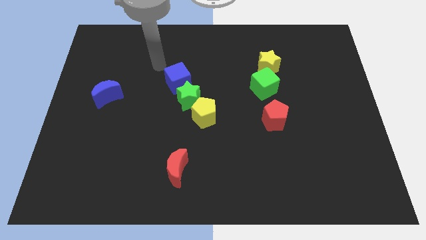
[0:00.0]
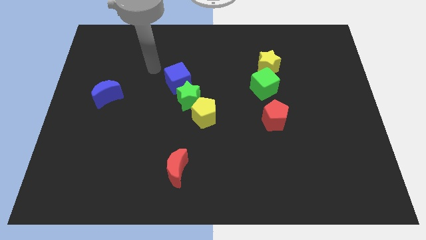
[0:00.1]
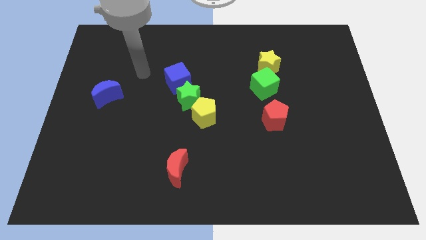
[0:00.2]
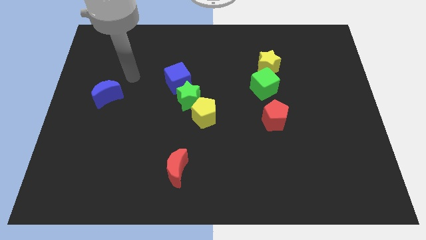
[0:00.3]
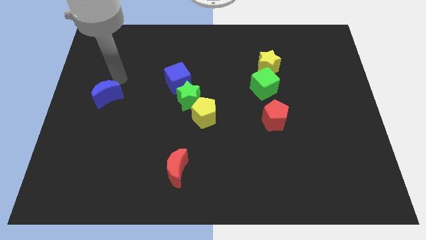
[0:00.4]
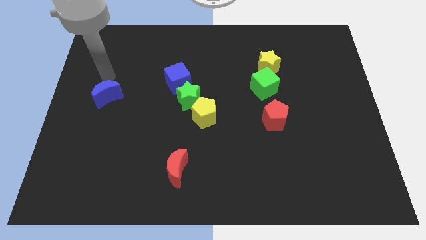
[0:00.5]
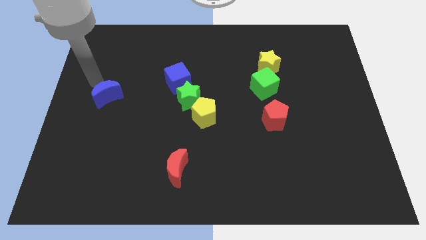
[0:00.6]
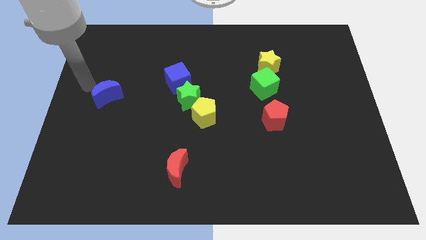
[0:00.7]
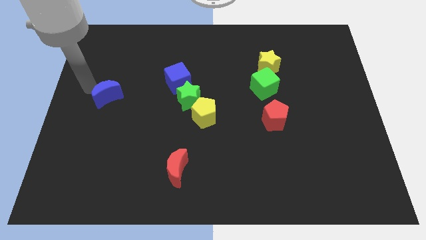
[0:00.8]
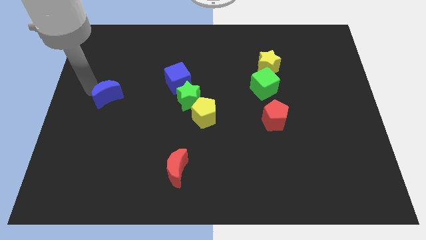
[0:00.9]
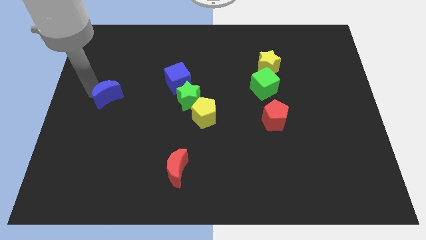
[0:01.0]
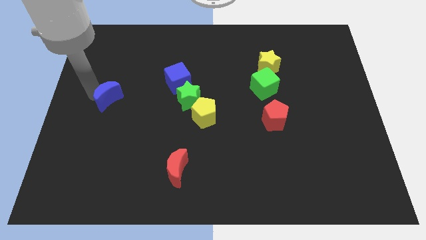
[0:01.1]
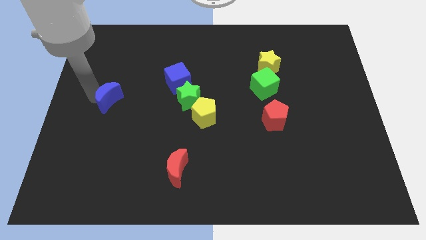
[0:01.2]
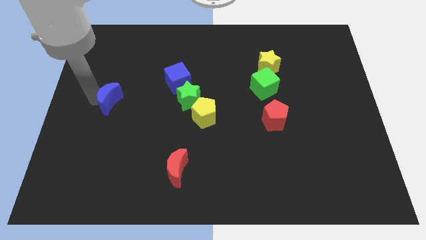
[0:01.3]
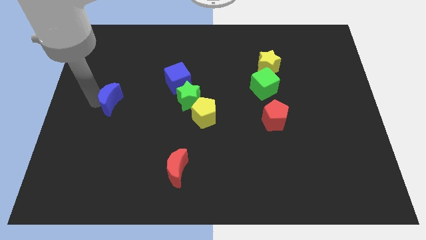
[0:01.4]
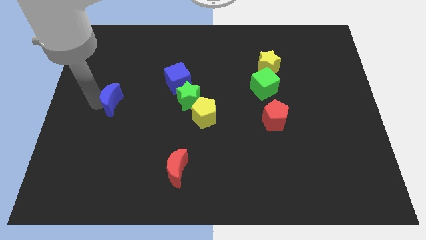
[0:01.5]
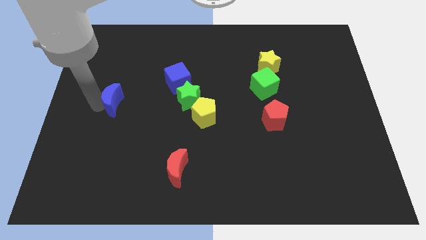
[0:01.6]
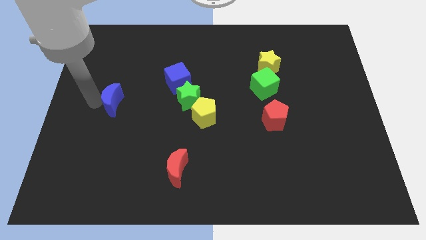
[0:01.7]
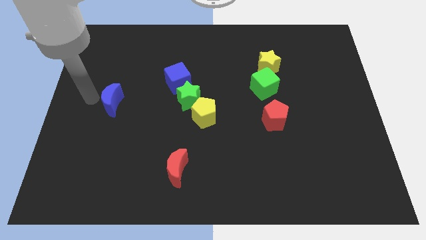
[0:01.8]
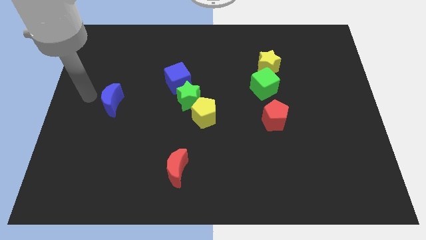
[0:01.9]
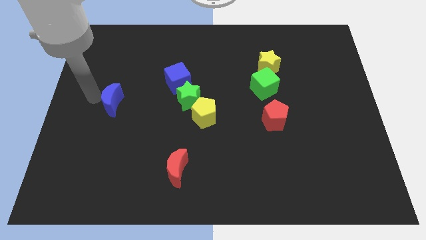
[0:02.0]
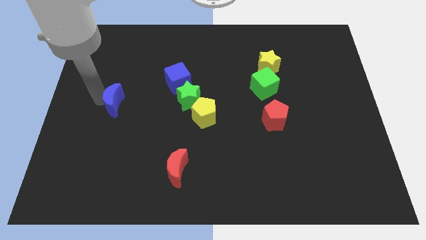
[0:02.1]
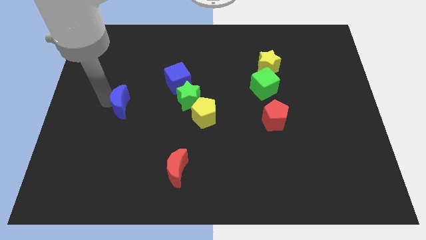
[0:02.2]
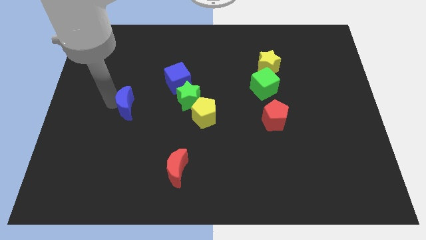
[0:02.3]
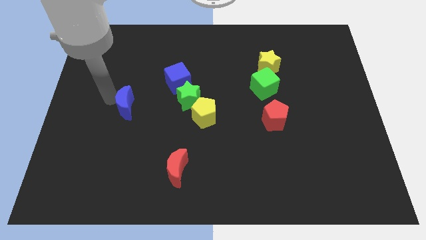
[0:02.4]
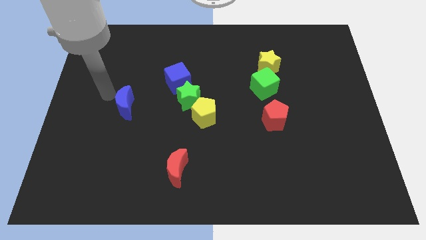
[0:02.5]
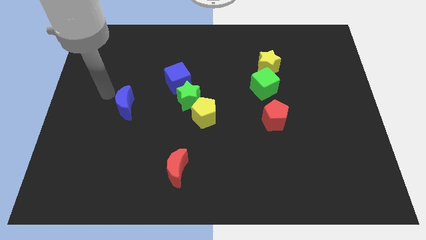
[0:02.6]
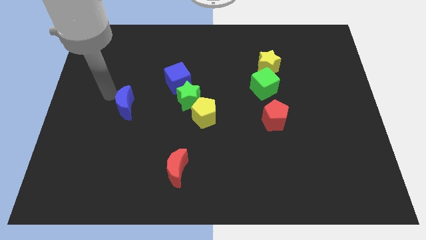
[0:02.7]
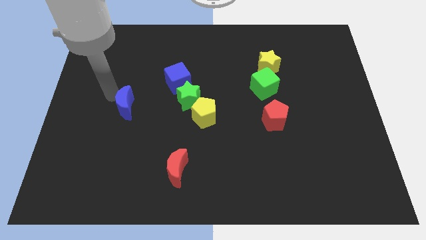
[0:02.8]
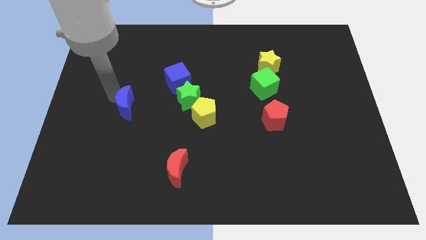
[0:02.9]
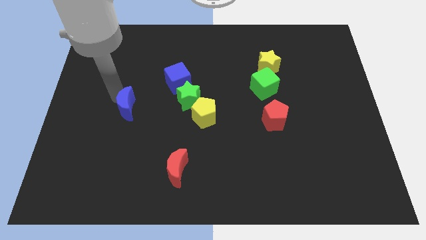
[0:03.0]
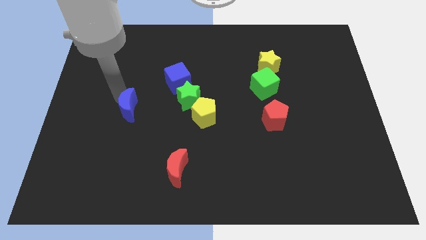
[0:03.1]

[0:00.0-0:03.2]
move the blue moon a bit diagonally down and to the right

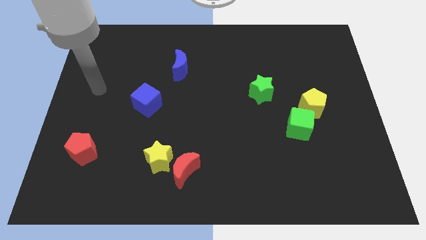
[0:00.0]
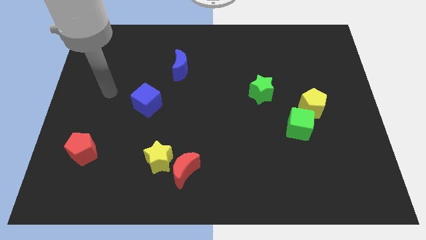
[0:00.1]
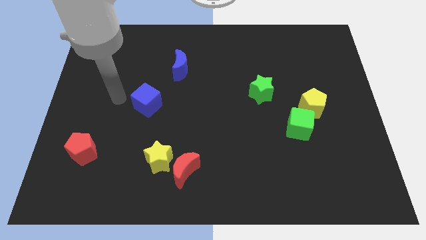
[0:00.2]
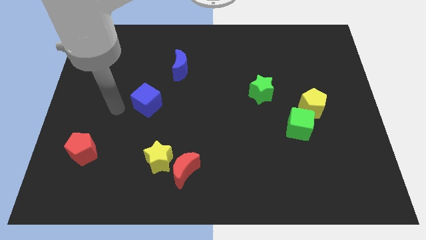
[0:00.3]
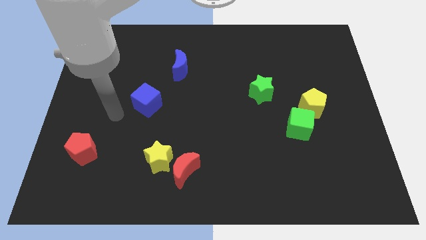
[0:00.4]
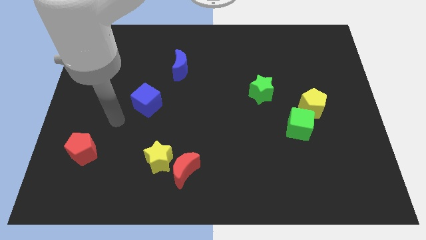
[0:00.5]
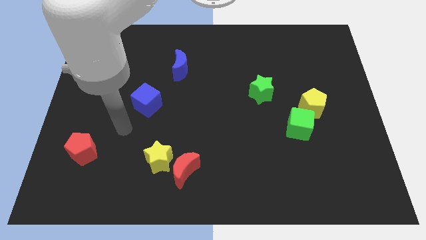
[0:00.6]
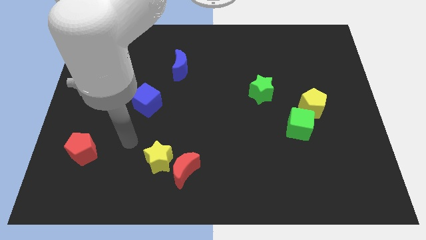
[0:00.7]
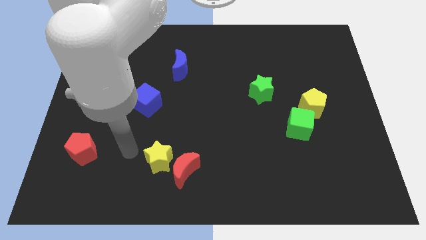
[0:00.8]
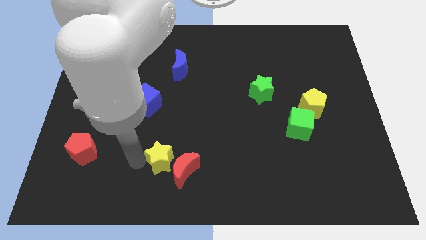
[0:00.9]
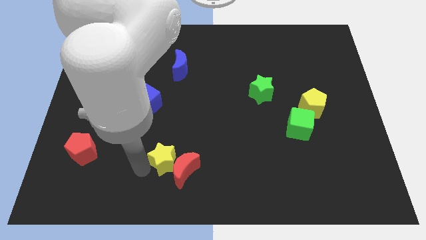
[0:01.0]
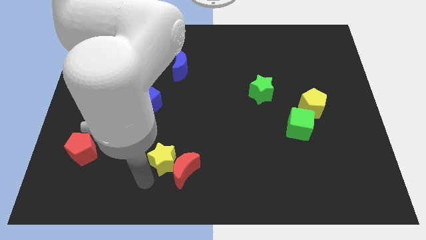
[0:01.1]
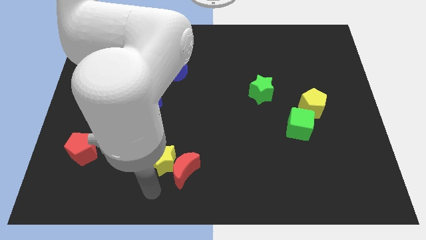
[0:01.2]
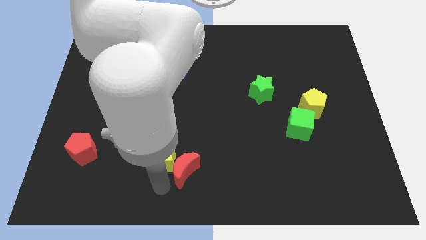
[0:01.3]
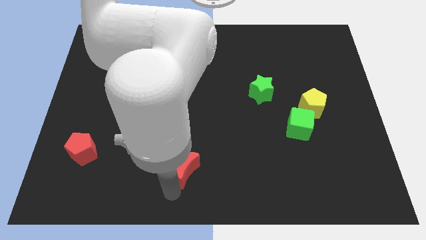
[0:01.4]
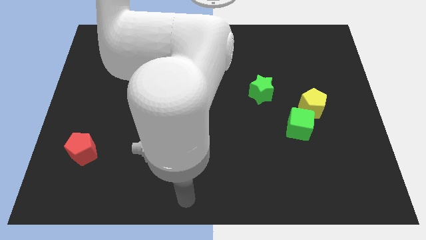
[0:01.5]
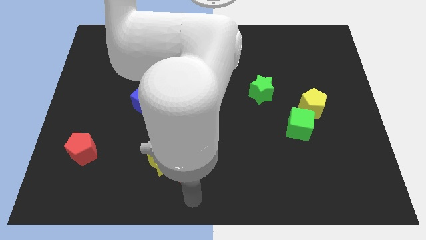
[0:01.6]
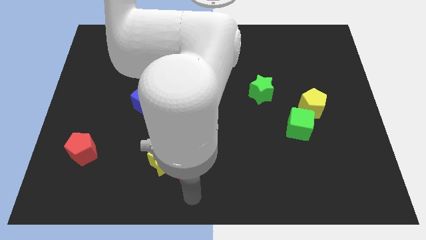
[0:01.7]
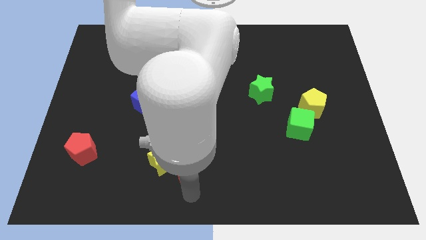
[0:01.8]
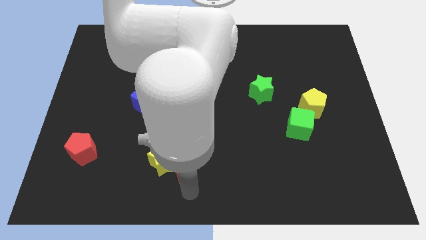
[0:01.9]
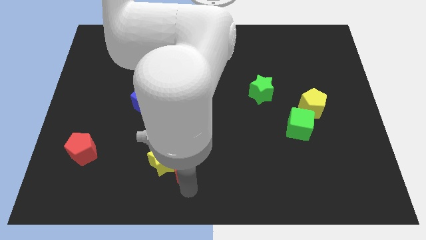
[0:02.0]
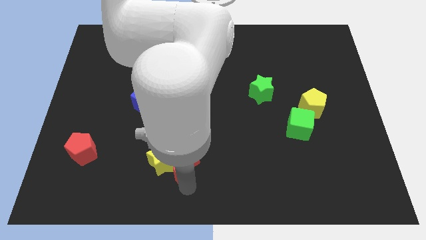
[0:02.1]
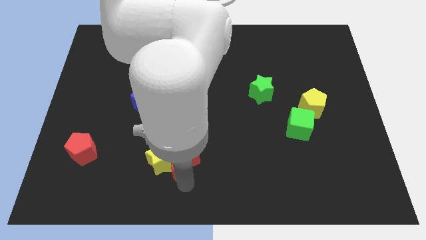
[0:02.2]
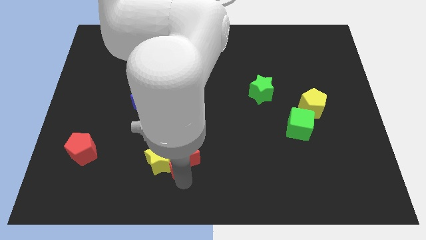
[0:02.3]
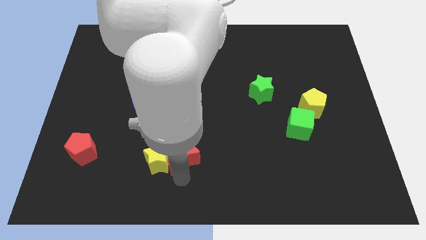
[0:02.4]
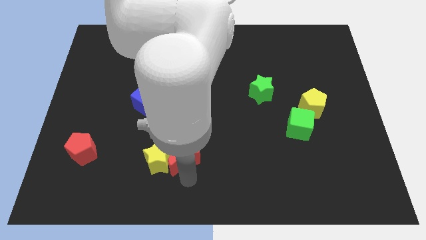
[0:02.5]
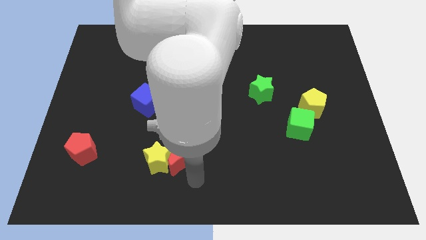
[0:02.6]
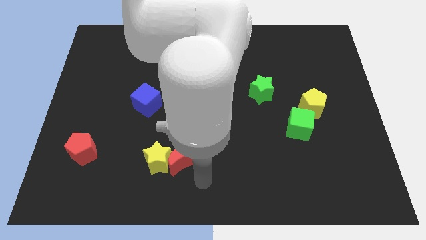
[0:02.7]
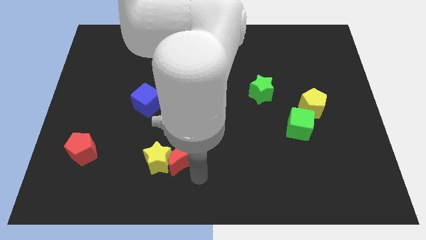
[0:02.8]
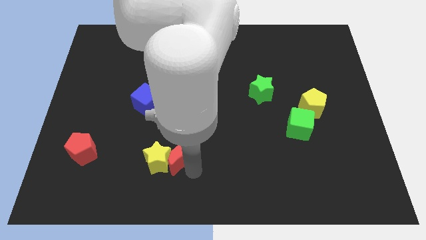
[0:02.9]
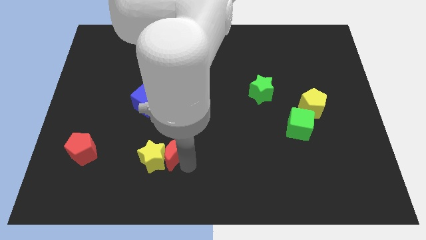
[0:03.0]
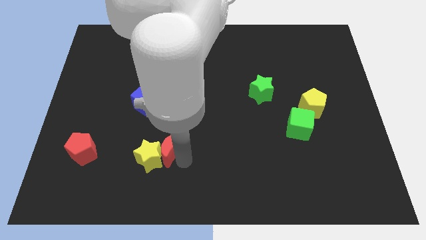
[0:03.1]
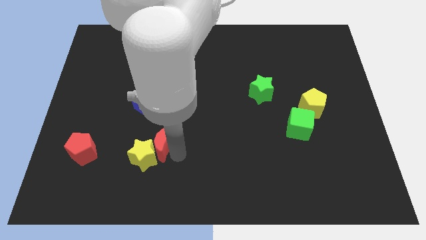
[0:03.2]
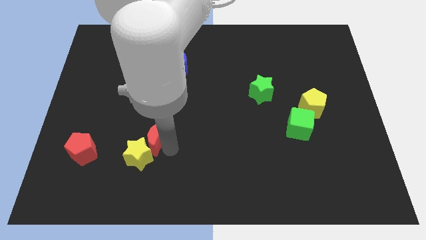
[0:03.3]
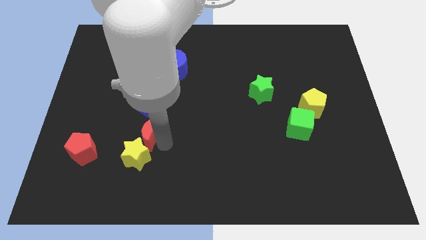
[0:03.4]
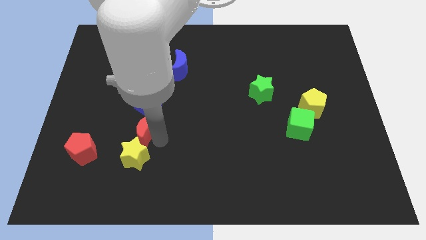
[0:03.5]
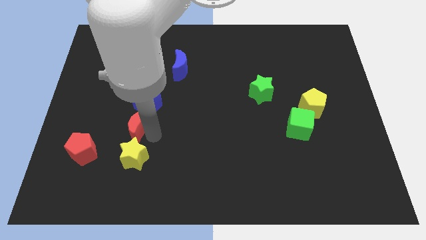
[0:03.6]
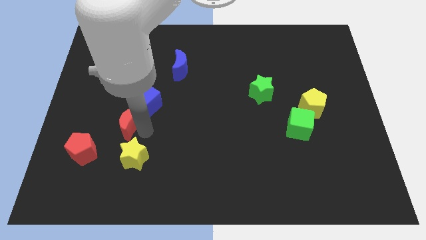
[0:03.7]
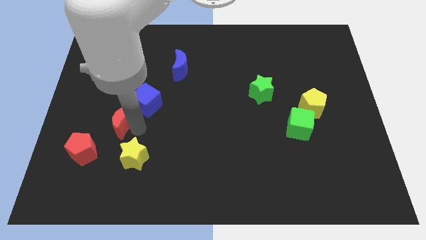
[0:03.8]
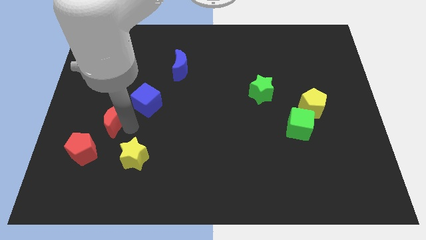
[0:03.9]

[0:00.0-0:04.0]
slide the red moon diagonally upwards and left

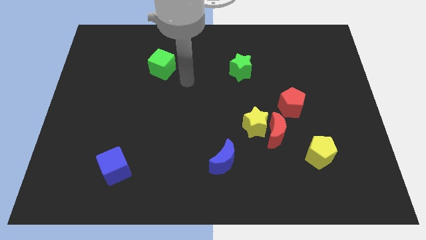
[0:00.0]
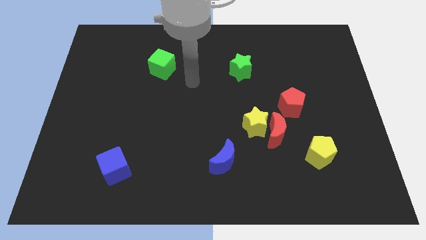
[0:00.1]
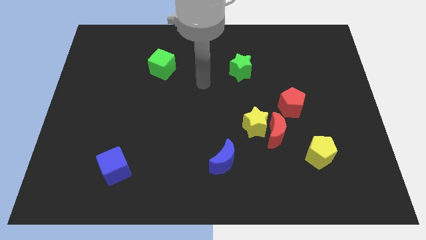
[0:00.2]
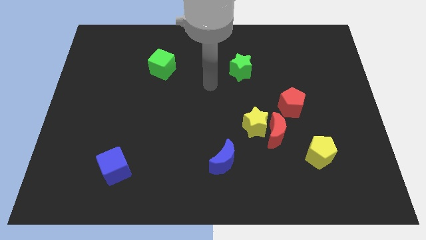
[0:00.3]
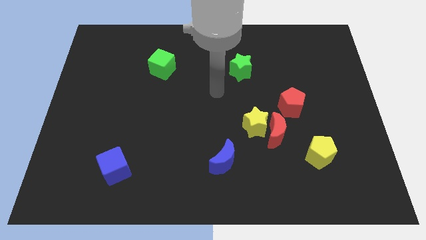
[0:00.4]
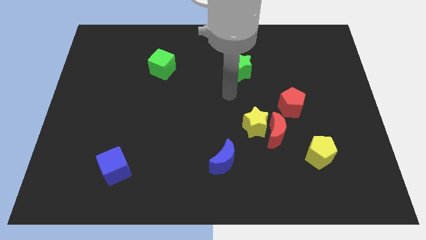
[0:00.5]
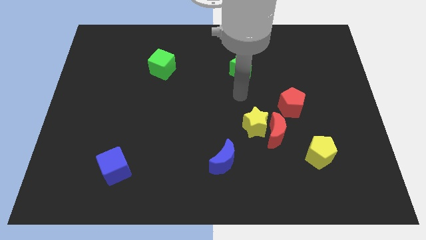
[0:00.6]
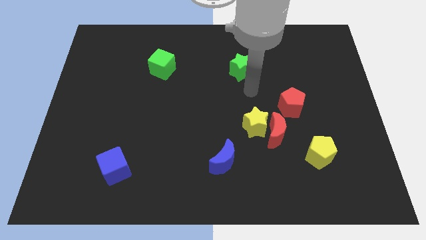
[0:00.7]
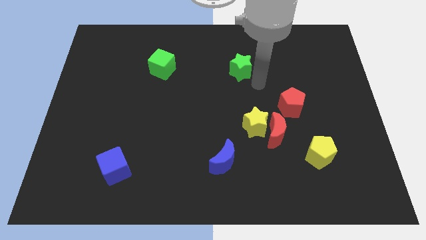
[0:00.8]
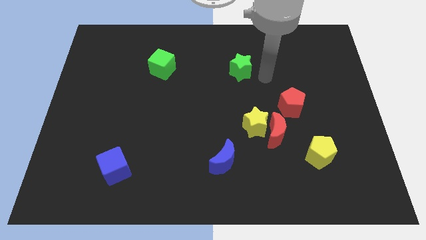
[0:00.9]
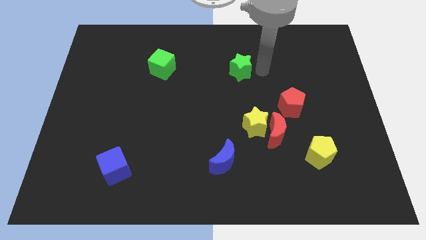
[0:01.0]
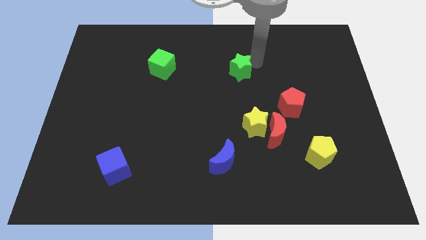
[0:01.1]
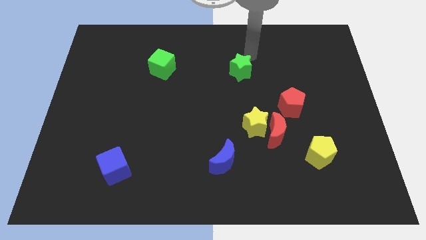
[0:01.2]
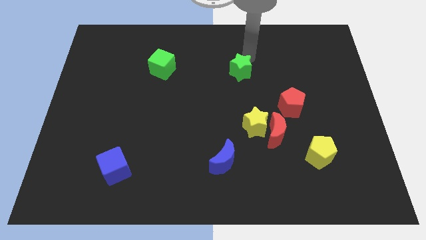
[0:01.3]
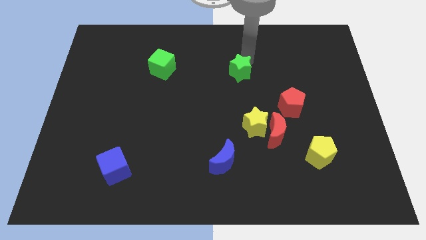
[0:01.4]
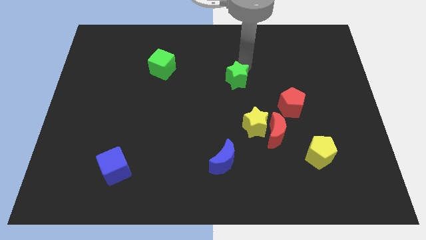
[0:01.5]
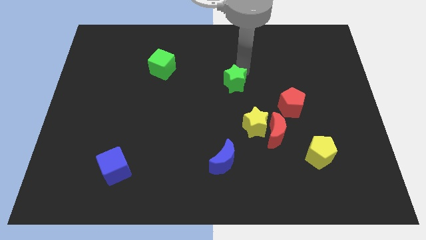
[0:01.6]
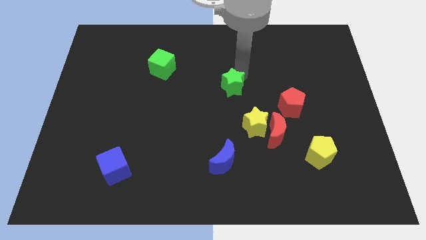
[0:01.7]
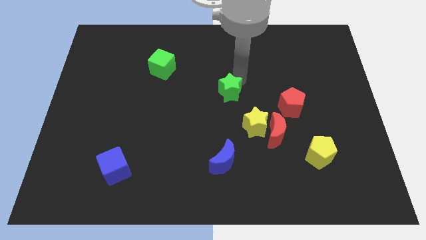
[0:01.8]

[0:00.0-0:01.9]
push the green star downwards and to the left diagonally a little bit
